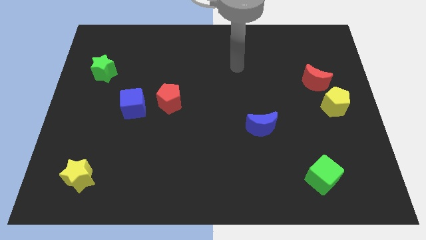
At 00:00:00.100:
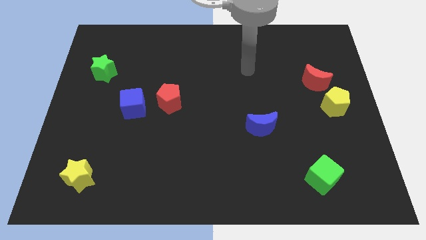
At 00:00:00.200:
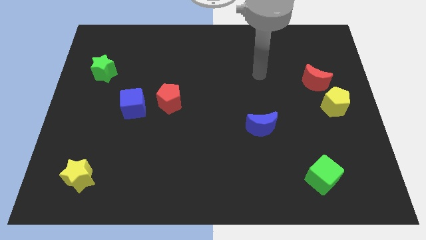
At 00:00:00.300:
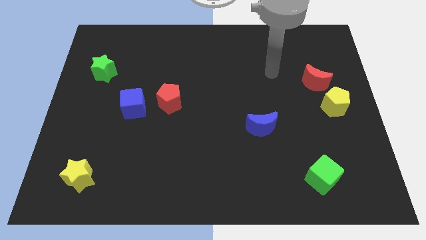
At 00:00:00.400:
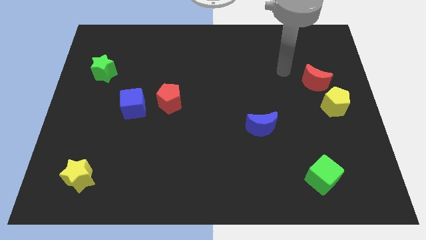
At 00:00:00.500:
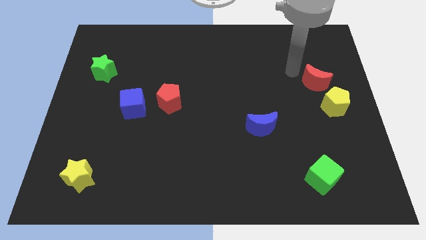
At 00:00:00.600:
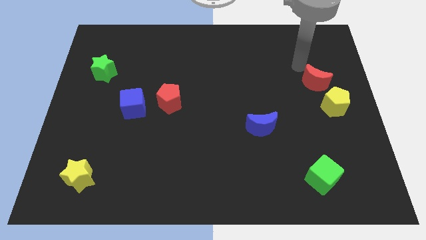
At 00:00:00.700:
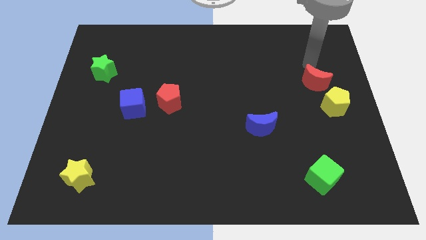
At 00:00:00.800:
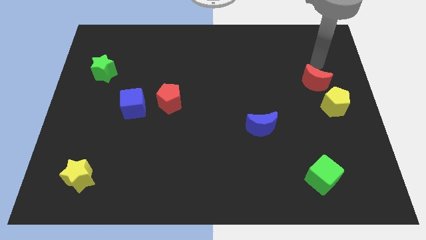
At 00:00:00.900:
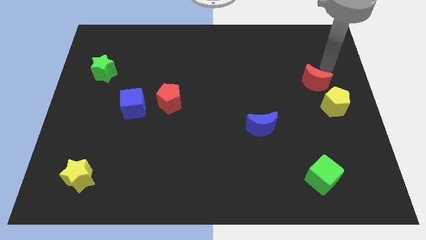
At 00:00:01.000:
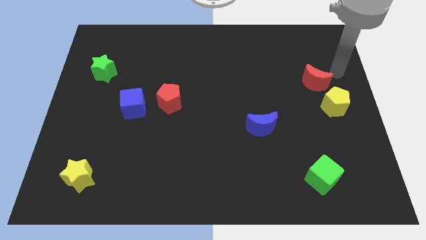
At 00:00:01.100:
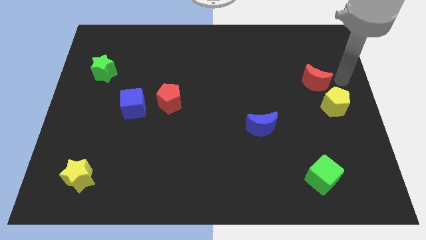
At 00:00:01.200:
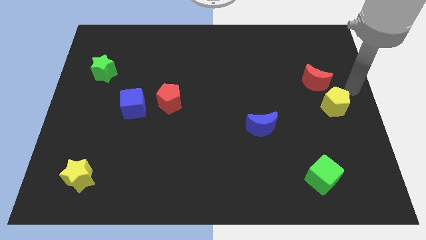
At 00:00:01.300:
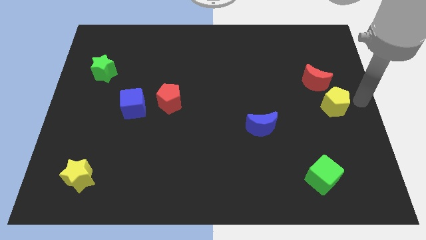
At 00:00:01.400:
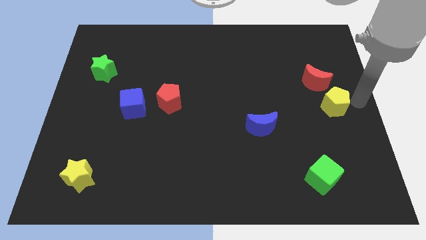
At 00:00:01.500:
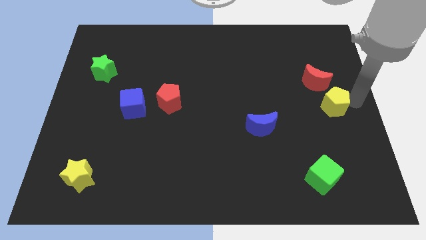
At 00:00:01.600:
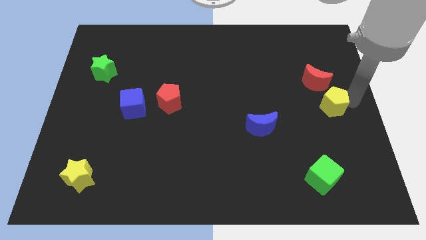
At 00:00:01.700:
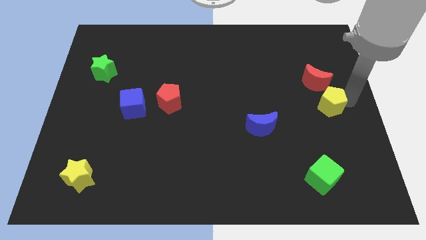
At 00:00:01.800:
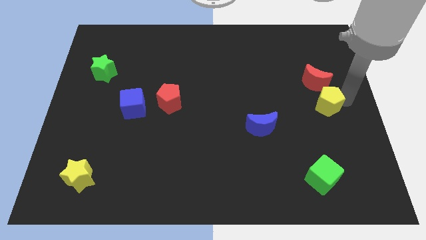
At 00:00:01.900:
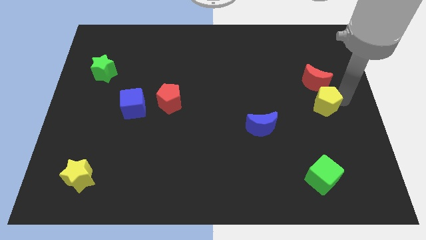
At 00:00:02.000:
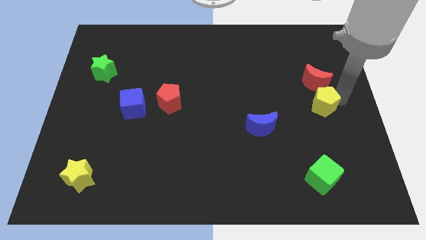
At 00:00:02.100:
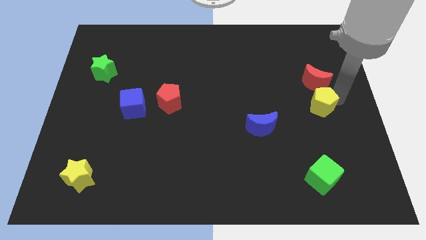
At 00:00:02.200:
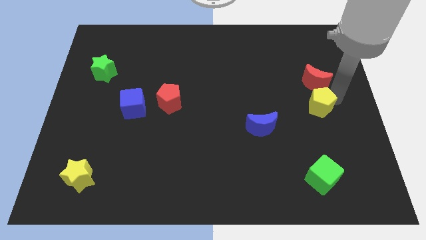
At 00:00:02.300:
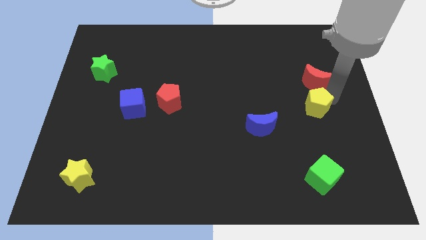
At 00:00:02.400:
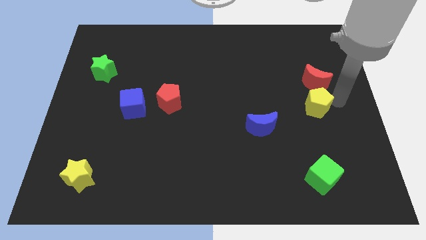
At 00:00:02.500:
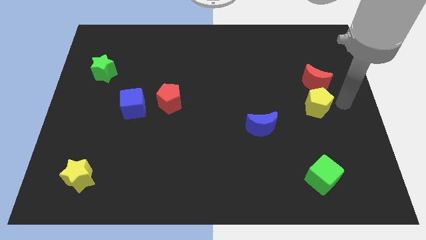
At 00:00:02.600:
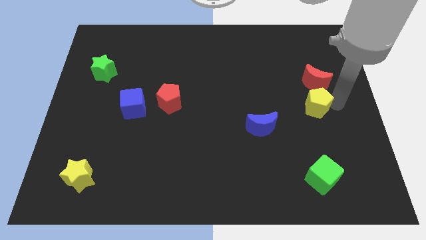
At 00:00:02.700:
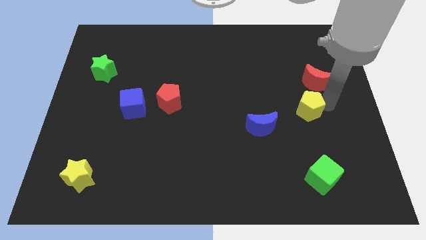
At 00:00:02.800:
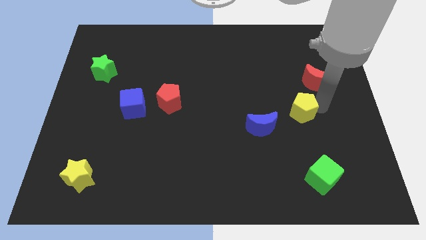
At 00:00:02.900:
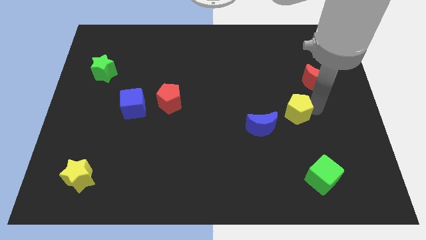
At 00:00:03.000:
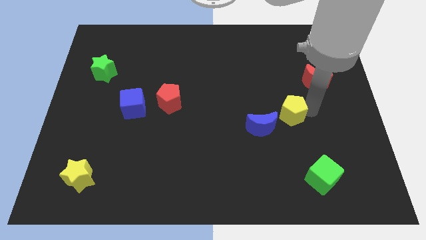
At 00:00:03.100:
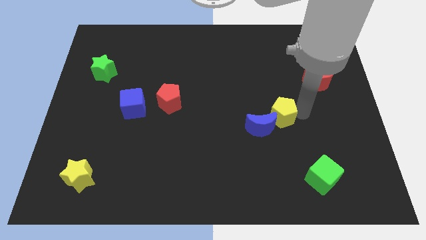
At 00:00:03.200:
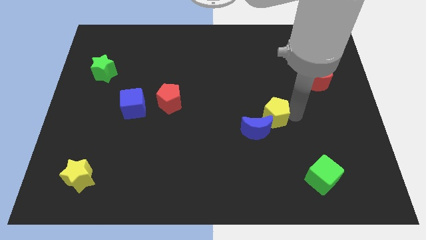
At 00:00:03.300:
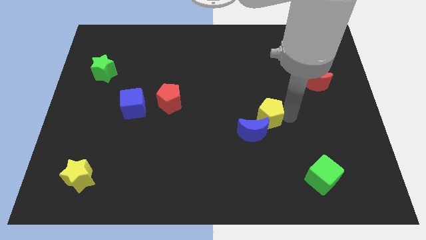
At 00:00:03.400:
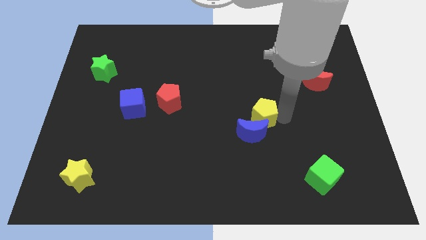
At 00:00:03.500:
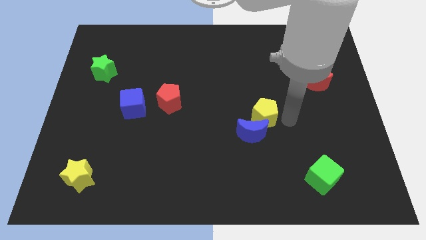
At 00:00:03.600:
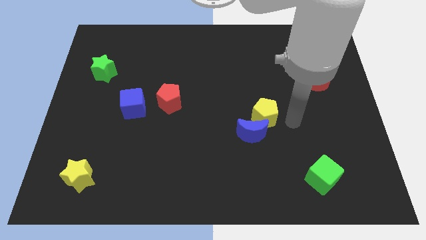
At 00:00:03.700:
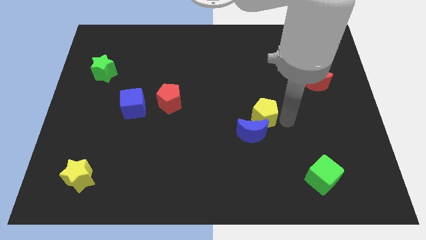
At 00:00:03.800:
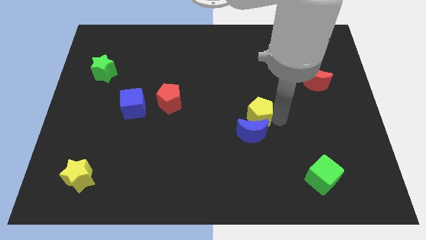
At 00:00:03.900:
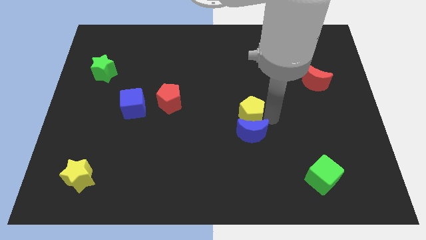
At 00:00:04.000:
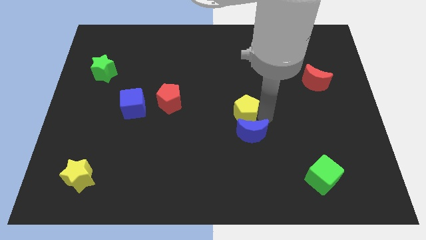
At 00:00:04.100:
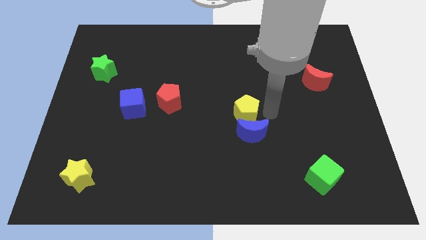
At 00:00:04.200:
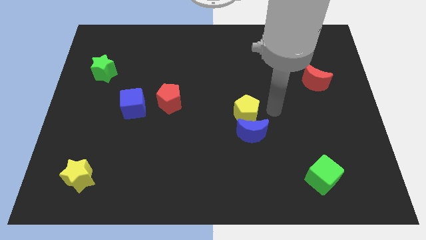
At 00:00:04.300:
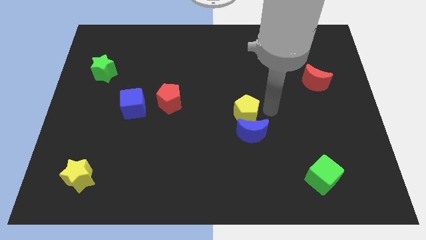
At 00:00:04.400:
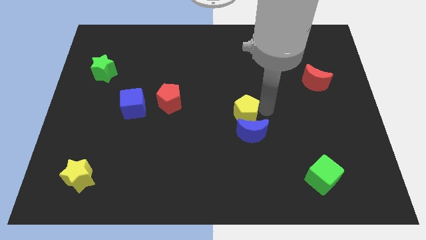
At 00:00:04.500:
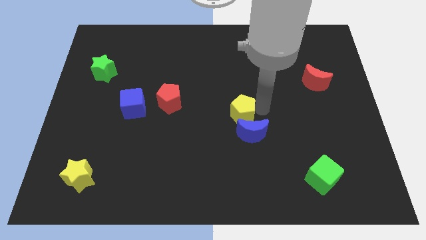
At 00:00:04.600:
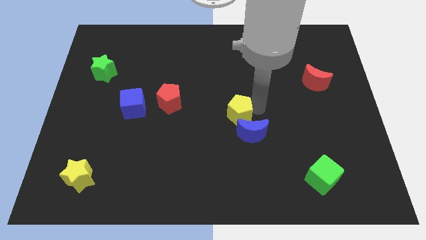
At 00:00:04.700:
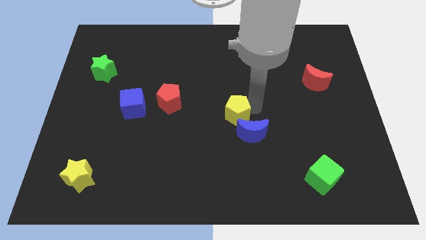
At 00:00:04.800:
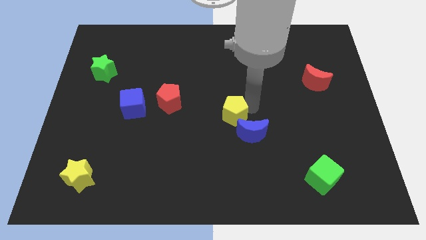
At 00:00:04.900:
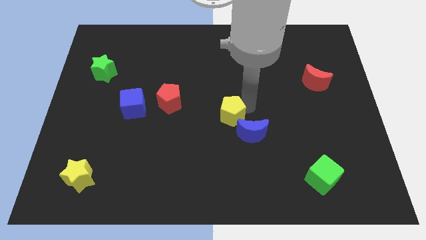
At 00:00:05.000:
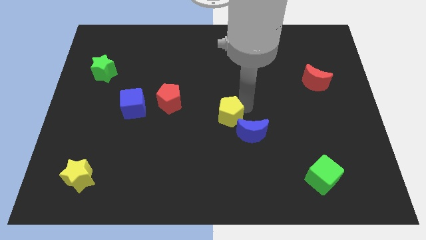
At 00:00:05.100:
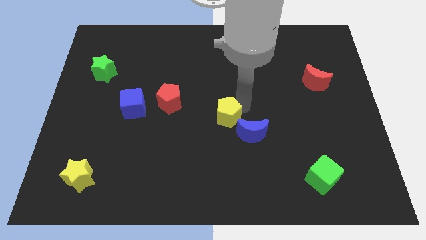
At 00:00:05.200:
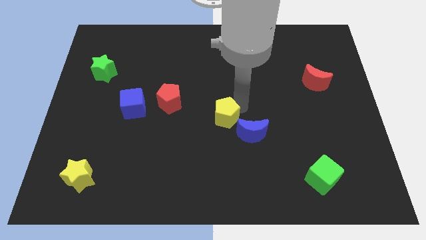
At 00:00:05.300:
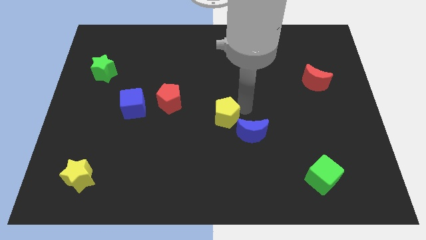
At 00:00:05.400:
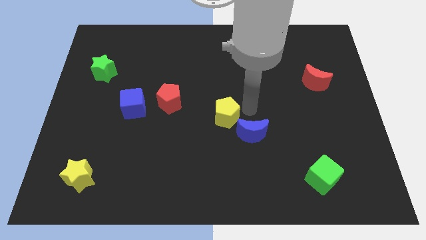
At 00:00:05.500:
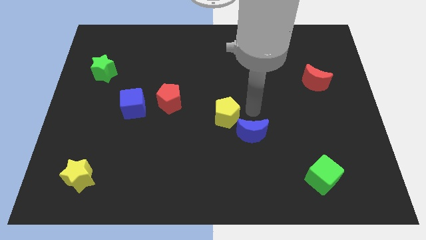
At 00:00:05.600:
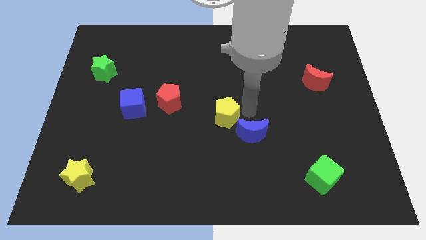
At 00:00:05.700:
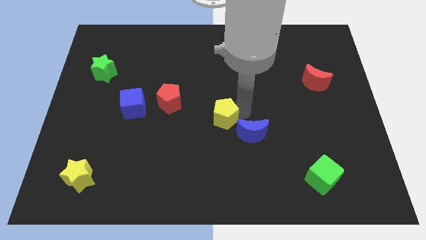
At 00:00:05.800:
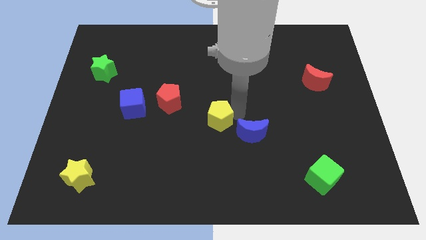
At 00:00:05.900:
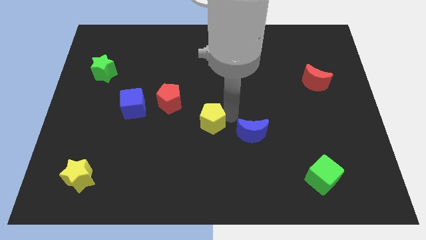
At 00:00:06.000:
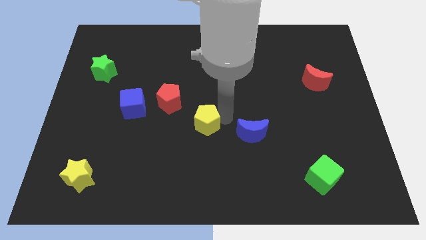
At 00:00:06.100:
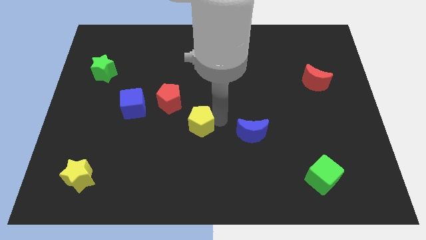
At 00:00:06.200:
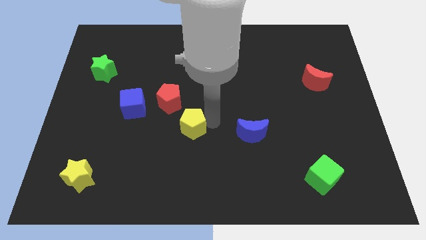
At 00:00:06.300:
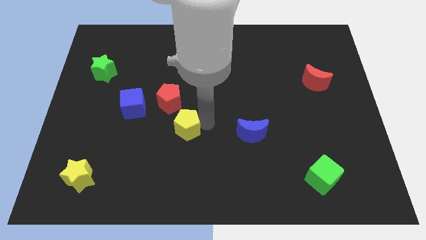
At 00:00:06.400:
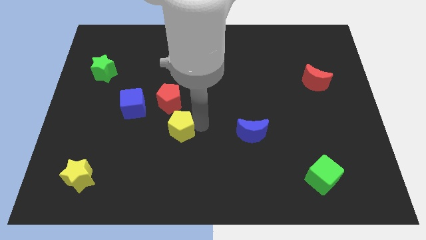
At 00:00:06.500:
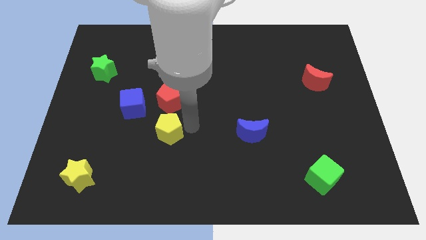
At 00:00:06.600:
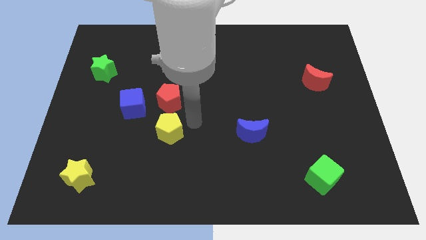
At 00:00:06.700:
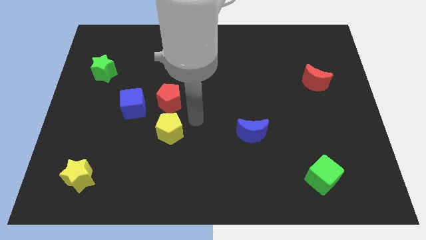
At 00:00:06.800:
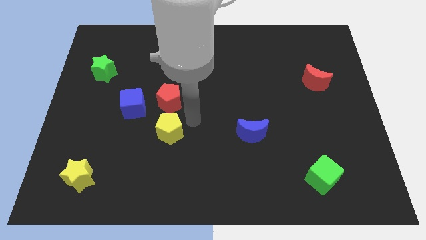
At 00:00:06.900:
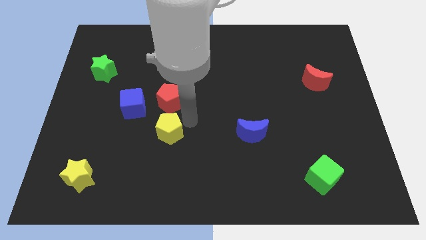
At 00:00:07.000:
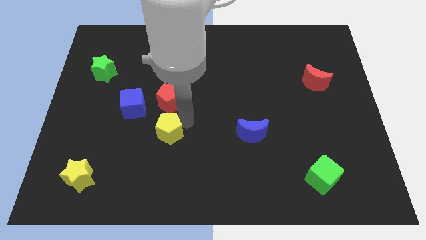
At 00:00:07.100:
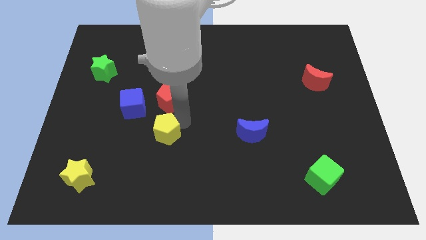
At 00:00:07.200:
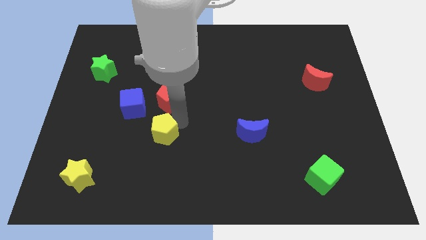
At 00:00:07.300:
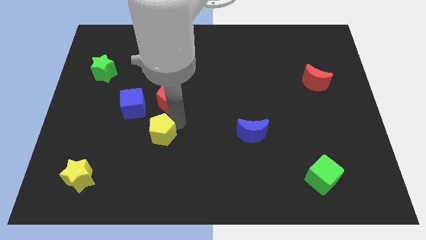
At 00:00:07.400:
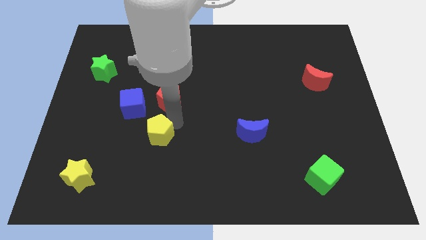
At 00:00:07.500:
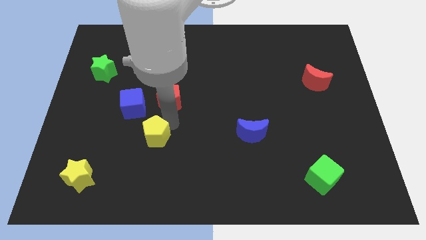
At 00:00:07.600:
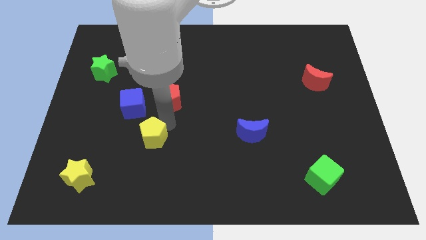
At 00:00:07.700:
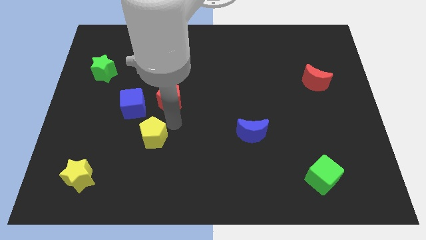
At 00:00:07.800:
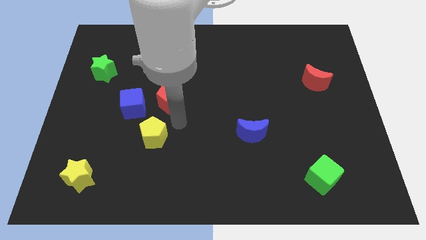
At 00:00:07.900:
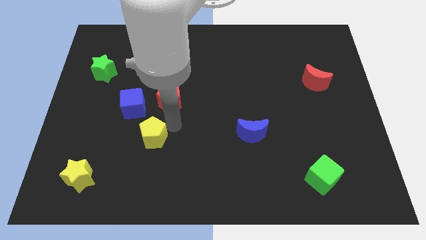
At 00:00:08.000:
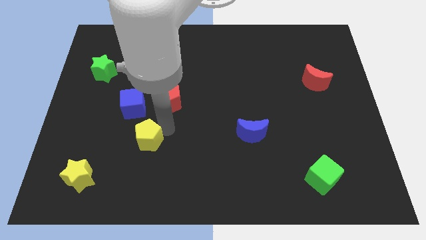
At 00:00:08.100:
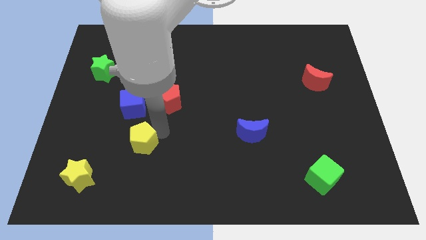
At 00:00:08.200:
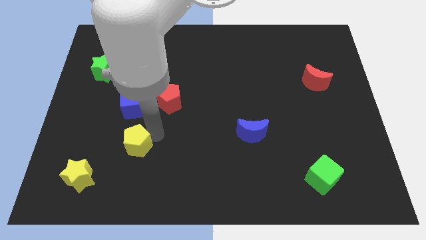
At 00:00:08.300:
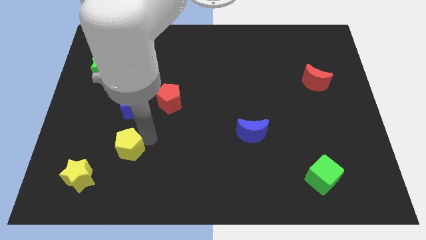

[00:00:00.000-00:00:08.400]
slide the yellow pentagon to the top right of the yellow star
